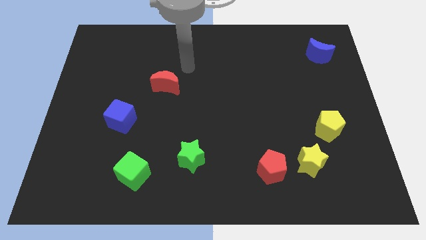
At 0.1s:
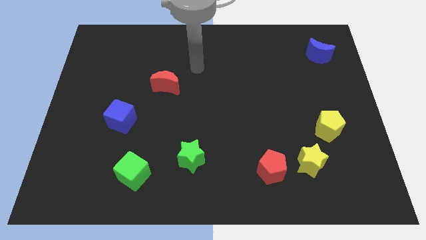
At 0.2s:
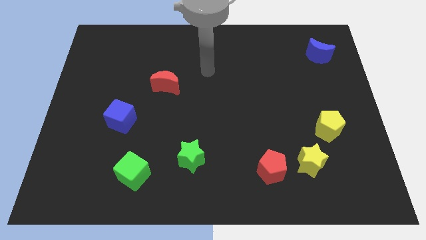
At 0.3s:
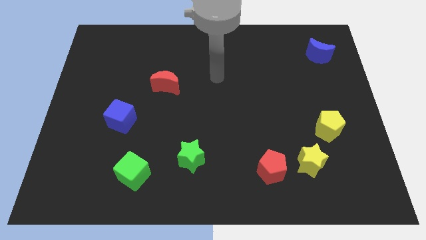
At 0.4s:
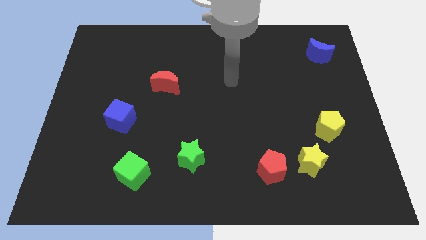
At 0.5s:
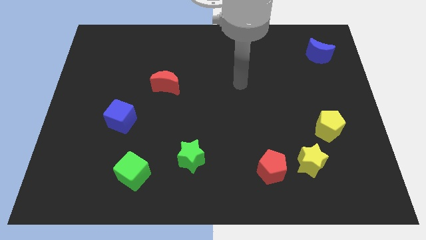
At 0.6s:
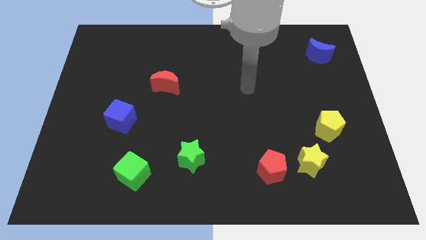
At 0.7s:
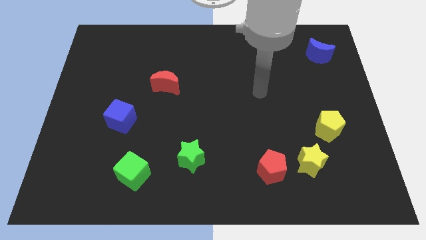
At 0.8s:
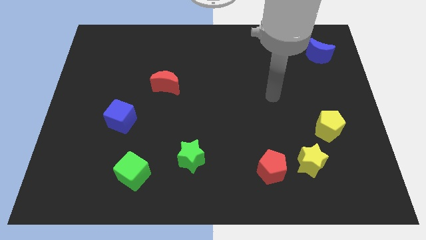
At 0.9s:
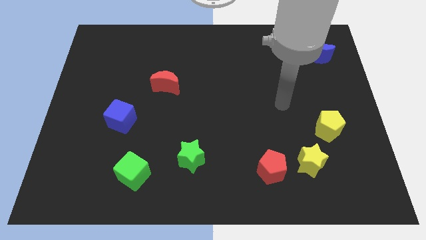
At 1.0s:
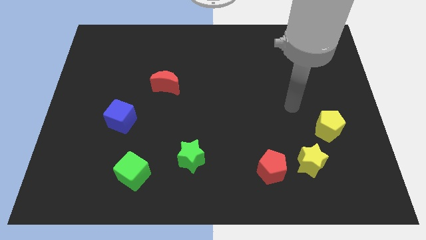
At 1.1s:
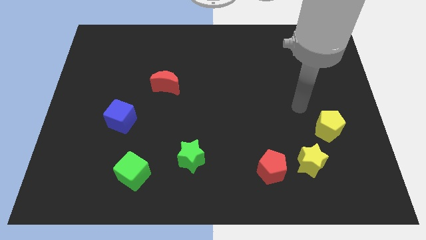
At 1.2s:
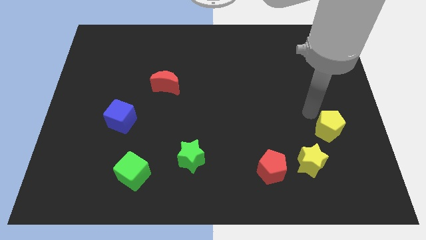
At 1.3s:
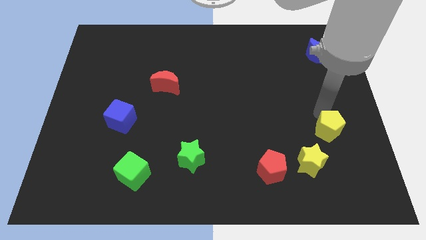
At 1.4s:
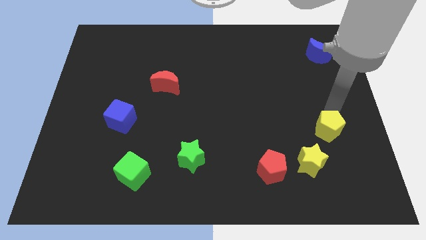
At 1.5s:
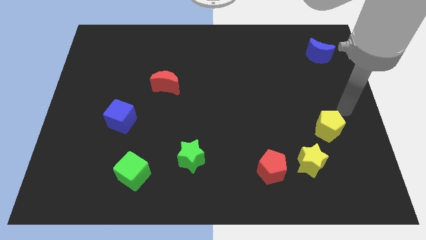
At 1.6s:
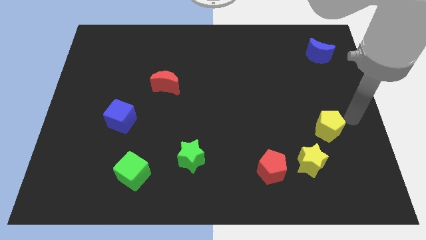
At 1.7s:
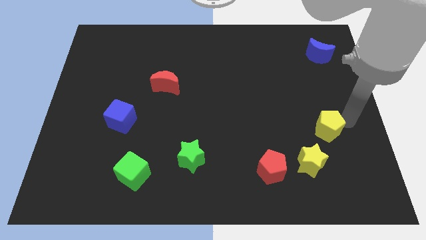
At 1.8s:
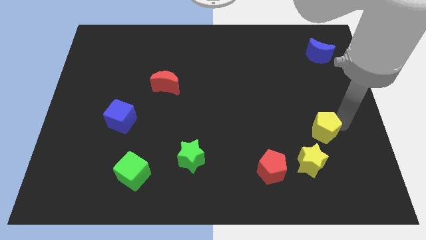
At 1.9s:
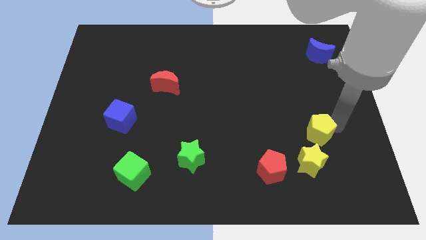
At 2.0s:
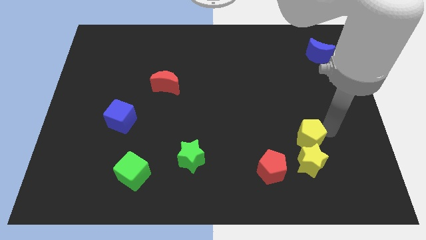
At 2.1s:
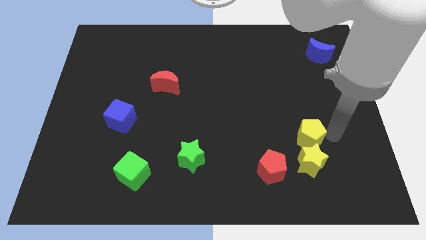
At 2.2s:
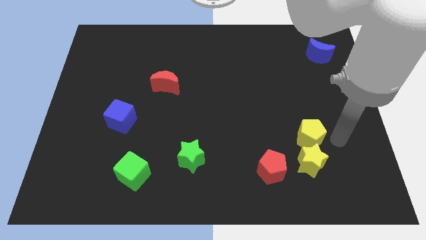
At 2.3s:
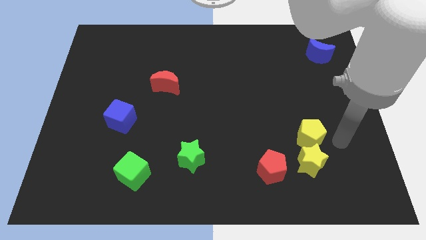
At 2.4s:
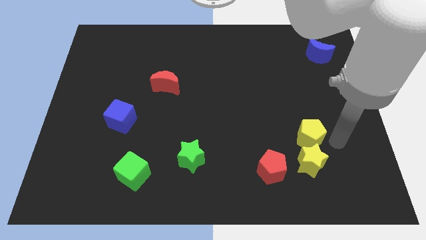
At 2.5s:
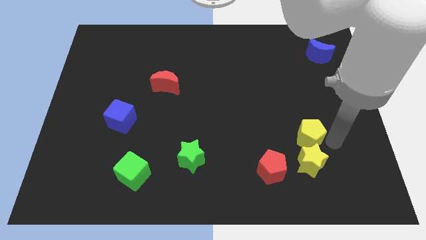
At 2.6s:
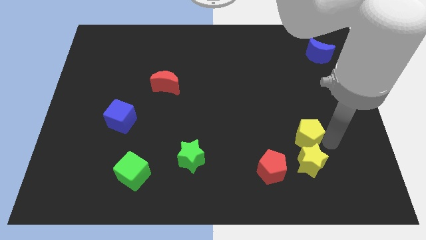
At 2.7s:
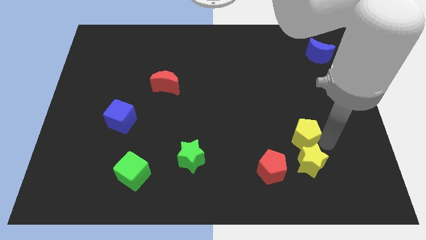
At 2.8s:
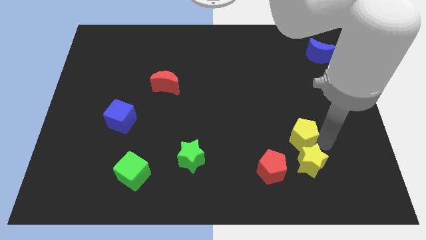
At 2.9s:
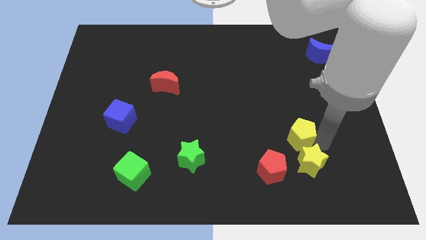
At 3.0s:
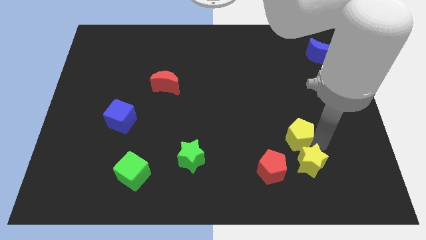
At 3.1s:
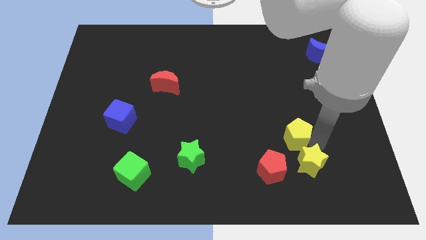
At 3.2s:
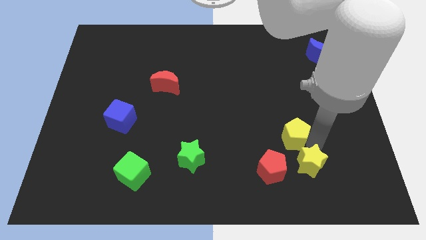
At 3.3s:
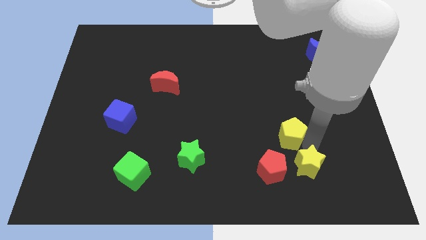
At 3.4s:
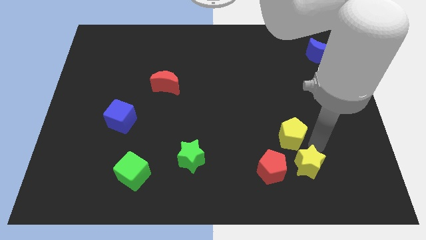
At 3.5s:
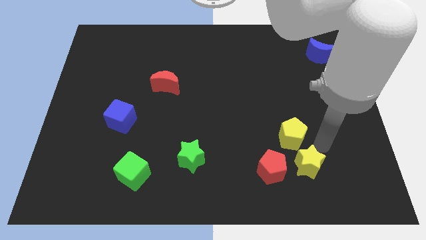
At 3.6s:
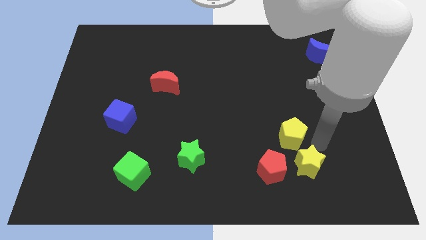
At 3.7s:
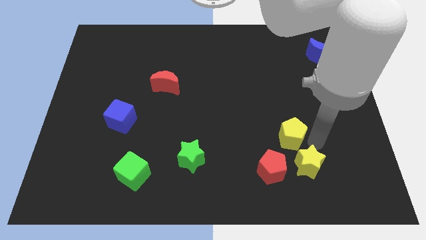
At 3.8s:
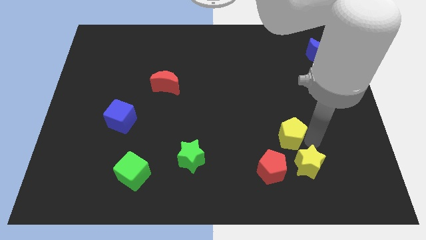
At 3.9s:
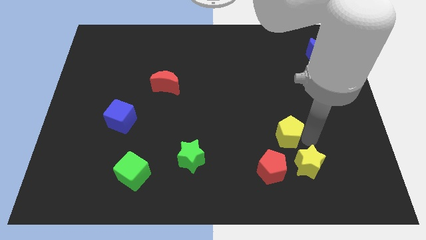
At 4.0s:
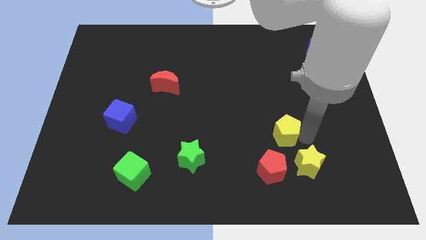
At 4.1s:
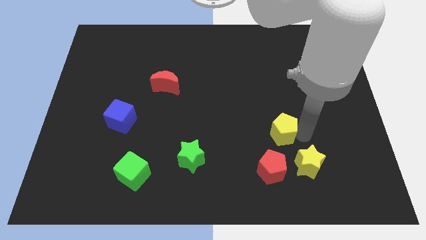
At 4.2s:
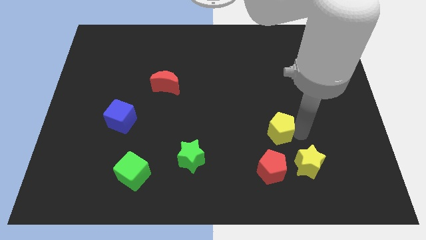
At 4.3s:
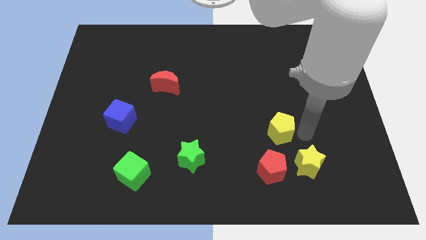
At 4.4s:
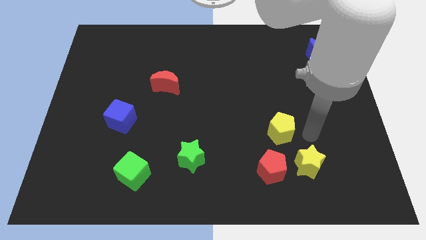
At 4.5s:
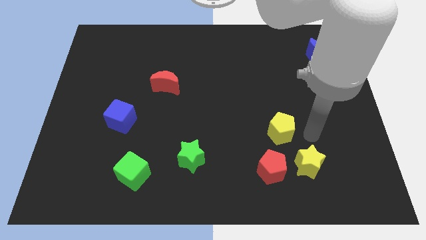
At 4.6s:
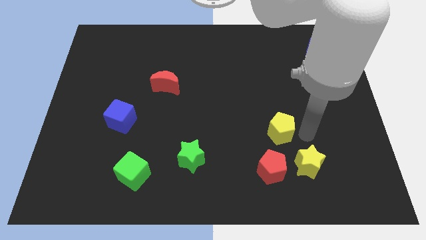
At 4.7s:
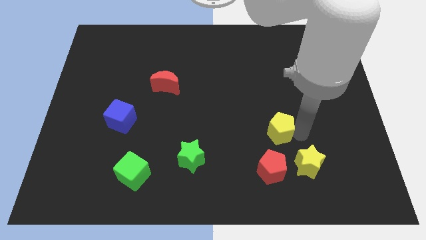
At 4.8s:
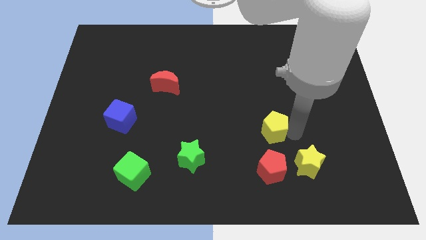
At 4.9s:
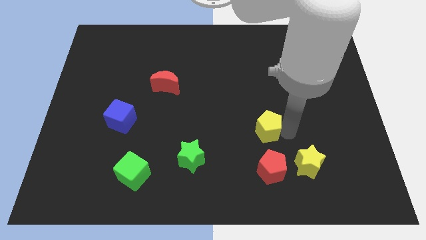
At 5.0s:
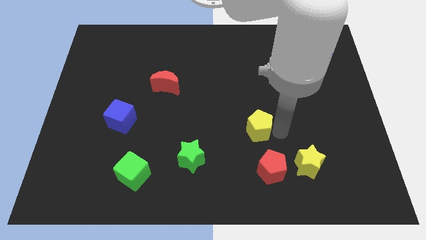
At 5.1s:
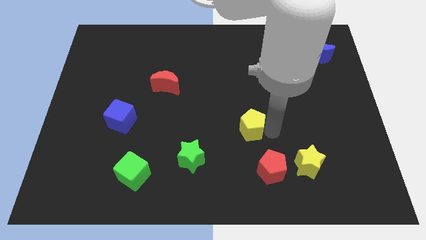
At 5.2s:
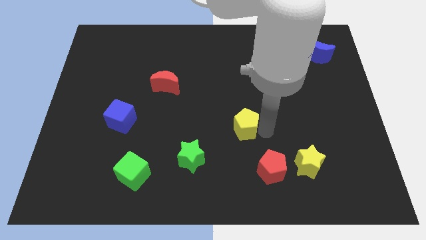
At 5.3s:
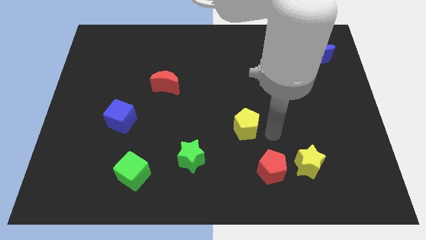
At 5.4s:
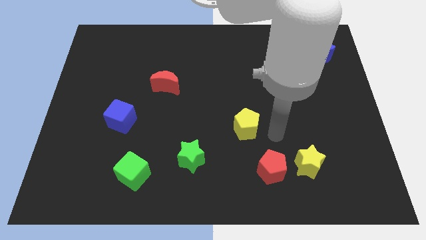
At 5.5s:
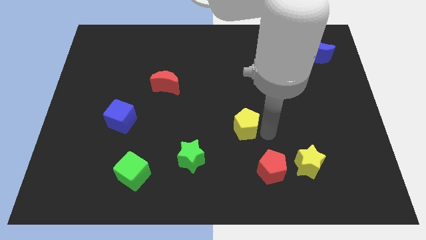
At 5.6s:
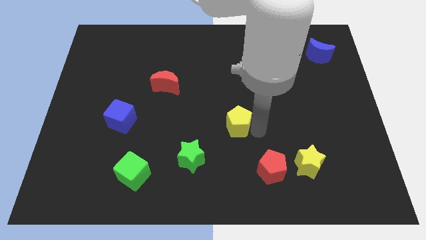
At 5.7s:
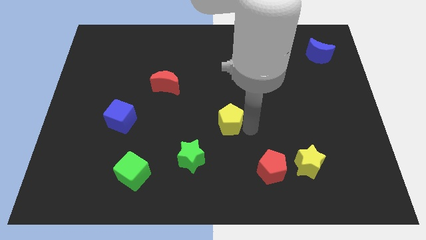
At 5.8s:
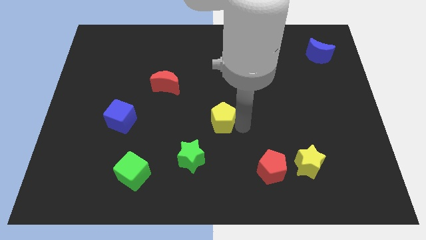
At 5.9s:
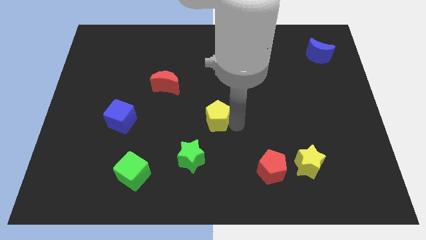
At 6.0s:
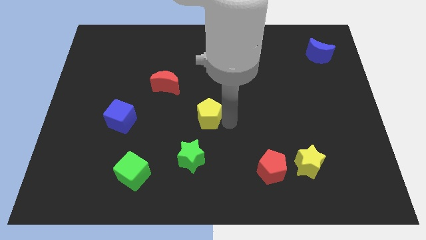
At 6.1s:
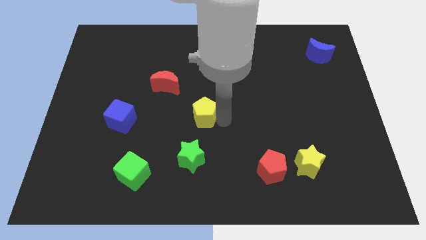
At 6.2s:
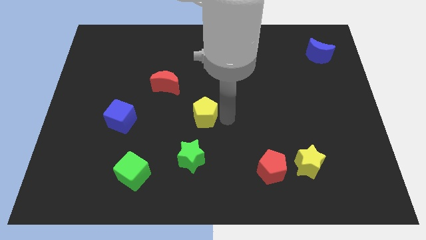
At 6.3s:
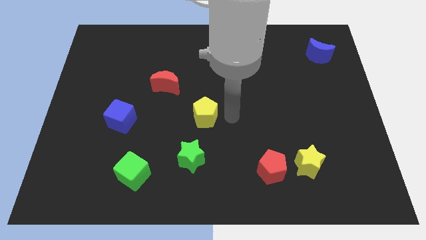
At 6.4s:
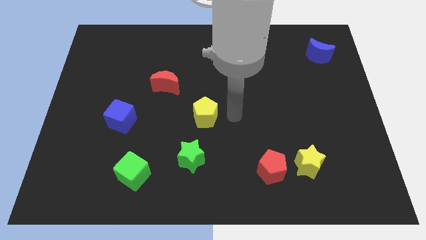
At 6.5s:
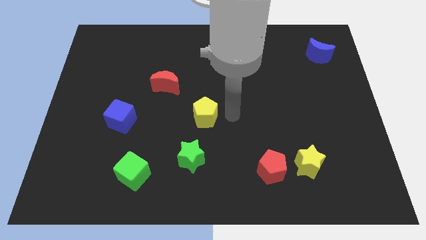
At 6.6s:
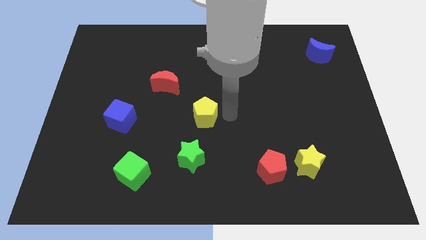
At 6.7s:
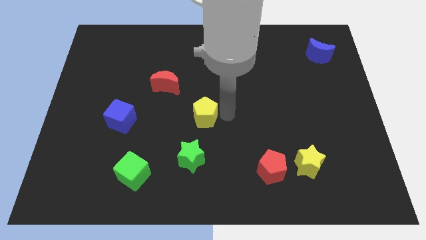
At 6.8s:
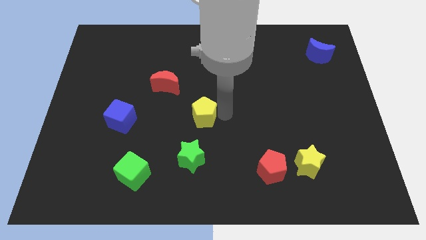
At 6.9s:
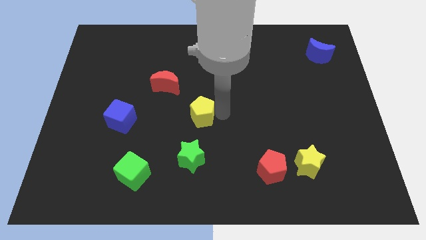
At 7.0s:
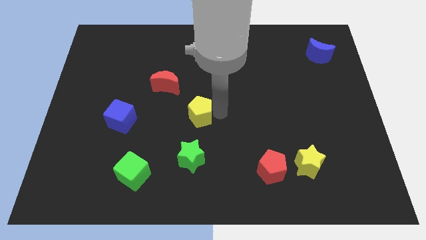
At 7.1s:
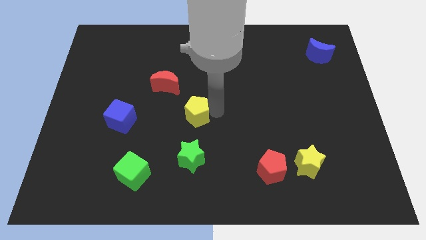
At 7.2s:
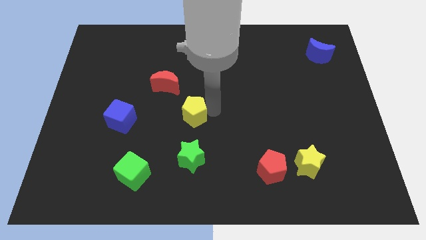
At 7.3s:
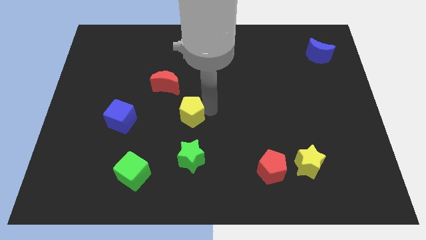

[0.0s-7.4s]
slide the yellow pentagon to the right of the blue cube

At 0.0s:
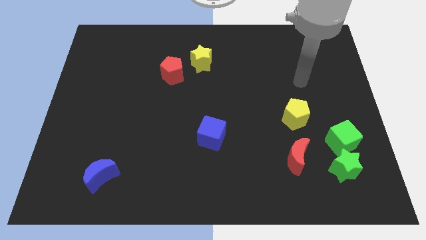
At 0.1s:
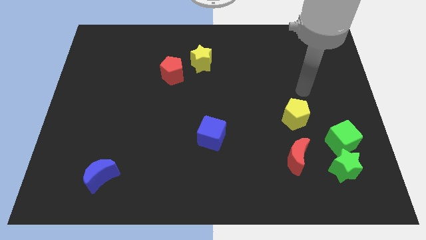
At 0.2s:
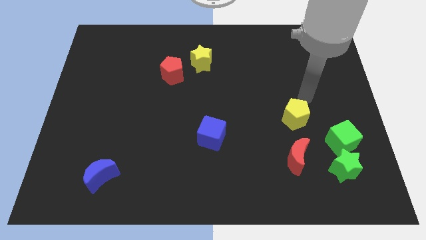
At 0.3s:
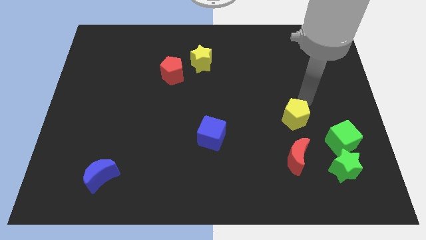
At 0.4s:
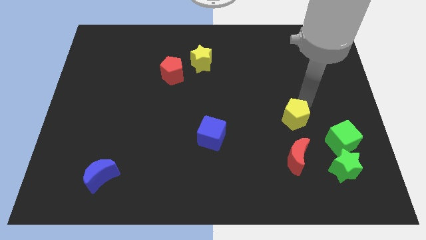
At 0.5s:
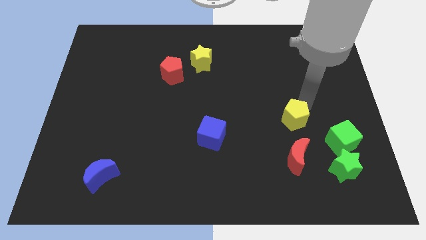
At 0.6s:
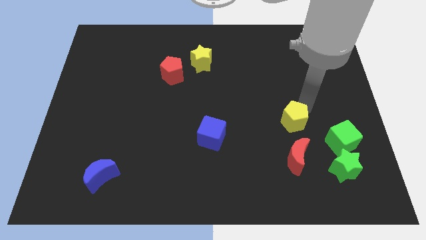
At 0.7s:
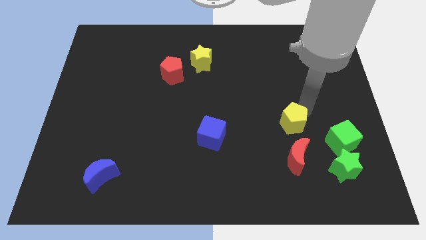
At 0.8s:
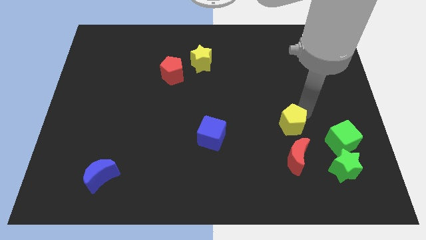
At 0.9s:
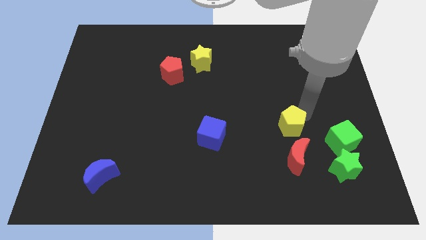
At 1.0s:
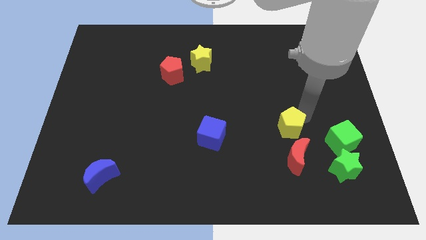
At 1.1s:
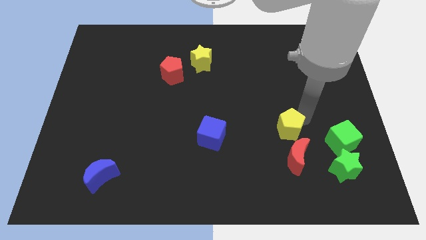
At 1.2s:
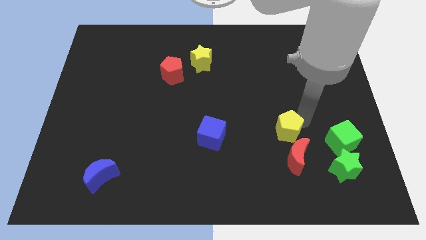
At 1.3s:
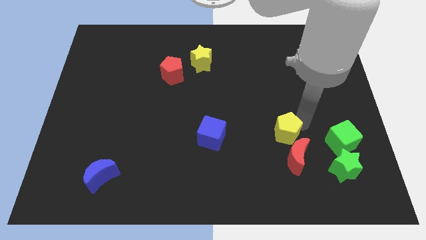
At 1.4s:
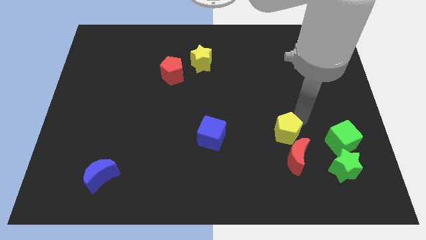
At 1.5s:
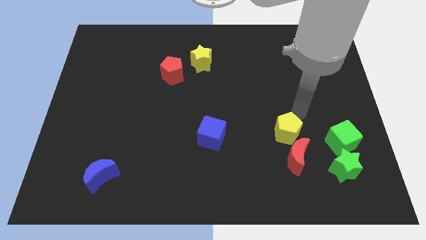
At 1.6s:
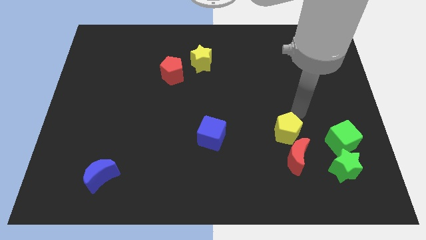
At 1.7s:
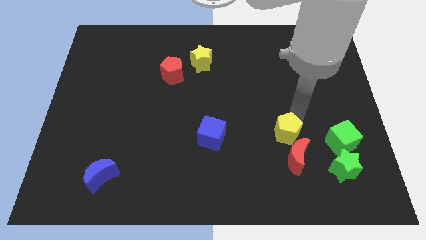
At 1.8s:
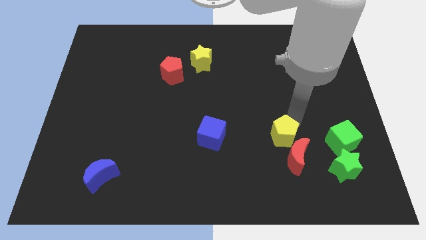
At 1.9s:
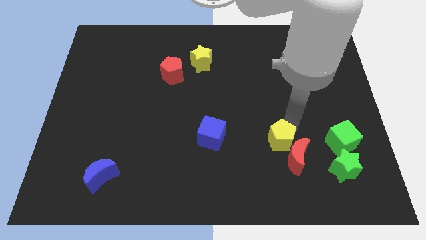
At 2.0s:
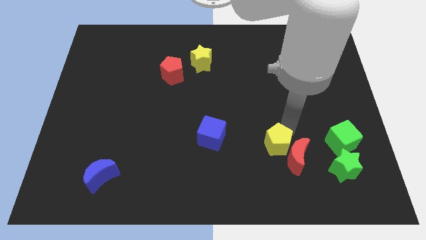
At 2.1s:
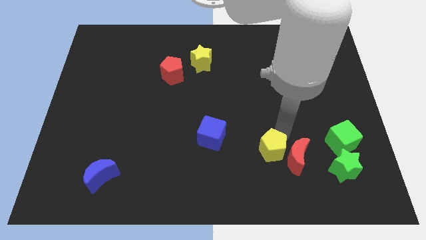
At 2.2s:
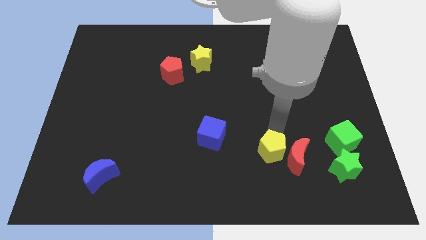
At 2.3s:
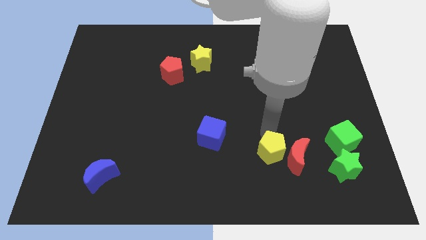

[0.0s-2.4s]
move the yellow pentagon left of the green star
